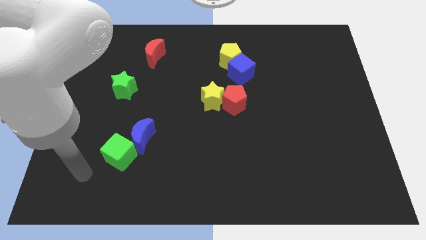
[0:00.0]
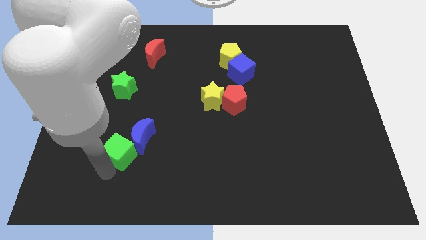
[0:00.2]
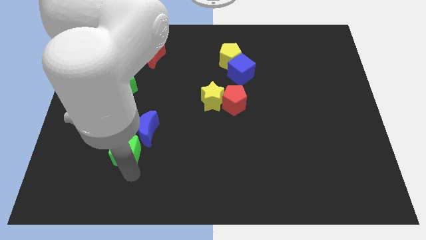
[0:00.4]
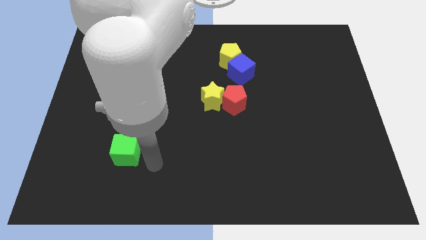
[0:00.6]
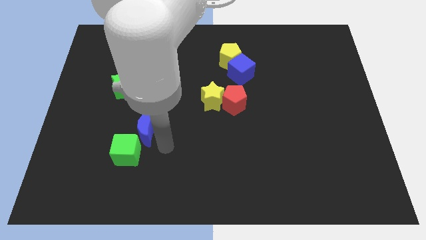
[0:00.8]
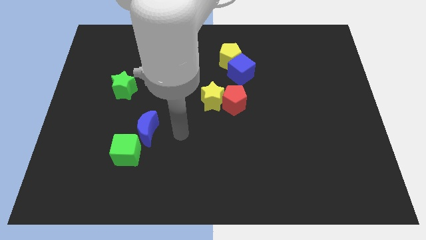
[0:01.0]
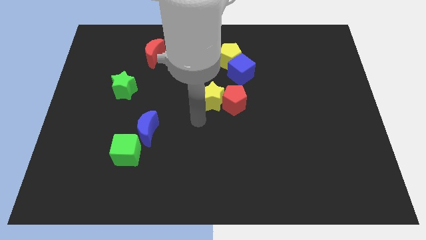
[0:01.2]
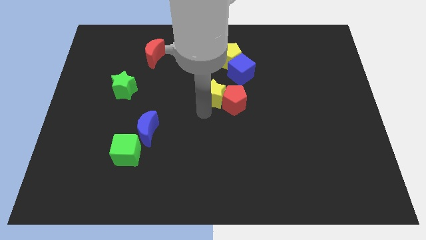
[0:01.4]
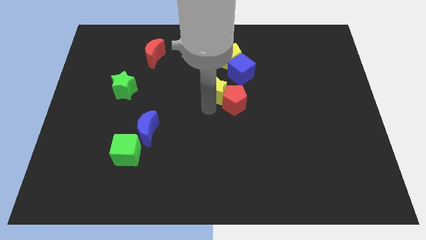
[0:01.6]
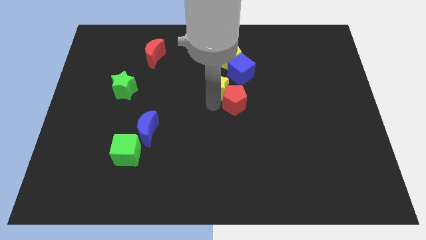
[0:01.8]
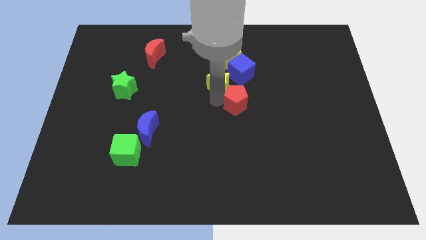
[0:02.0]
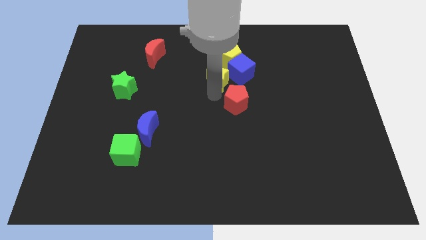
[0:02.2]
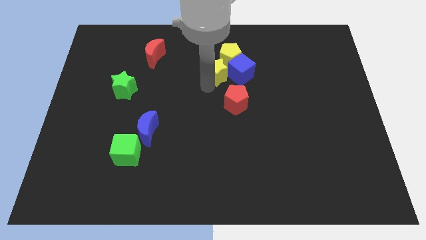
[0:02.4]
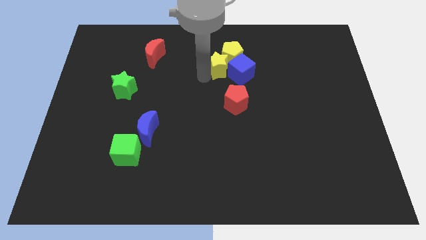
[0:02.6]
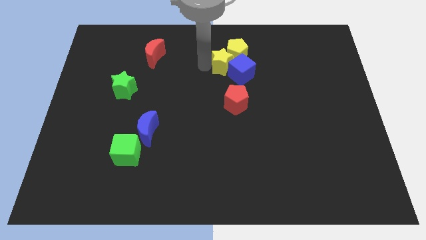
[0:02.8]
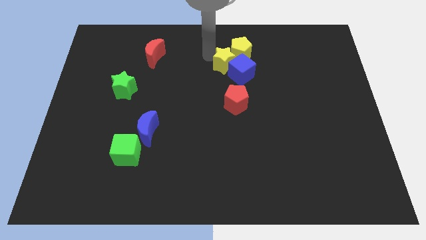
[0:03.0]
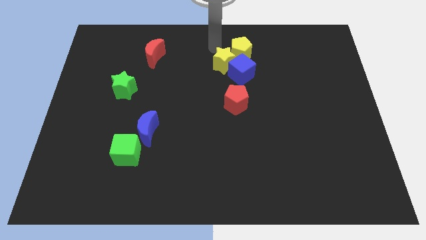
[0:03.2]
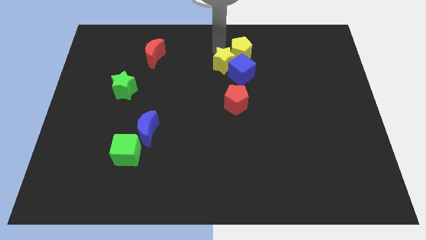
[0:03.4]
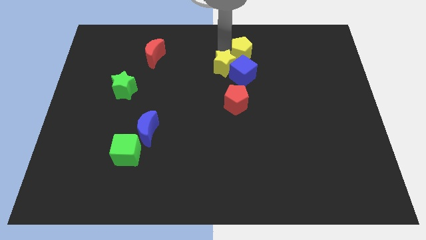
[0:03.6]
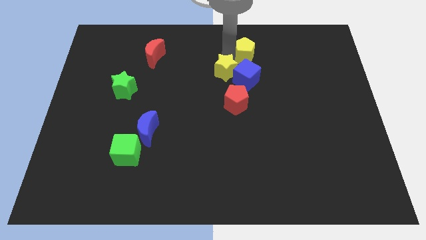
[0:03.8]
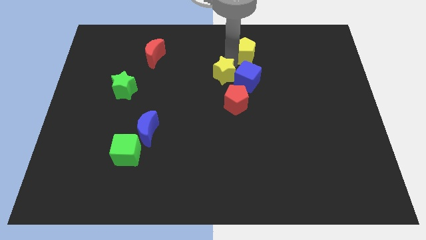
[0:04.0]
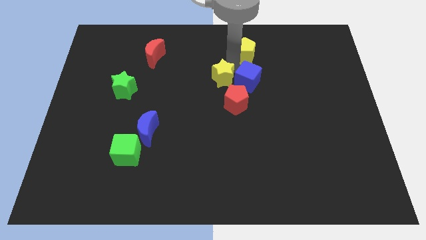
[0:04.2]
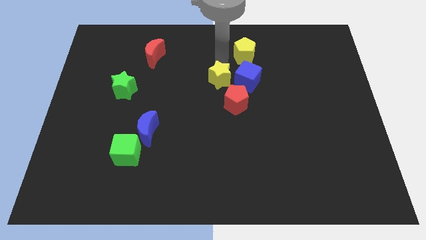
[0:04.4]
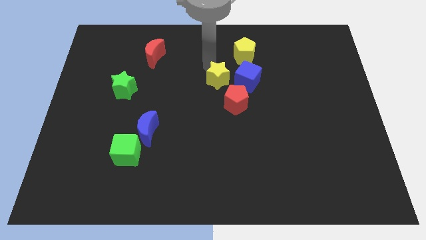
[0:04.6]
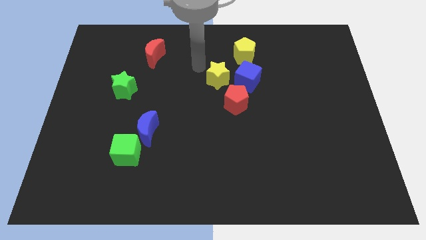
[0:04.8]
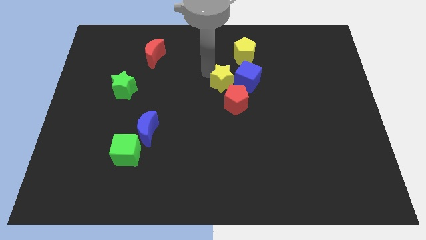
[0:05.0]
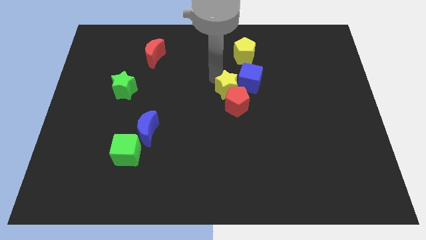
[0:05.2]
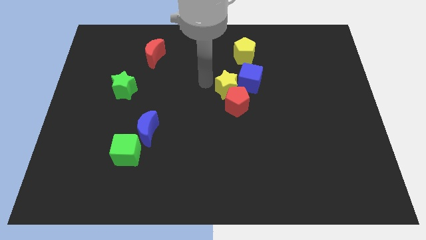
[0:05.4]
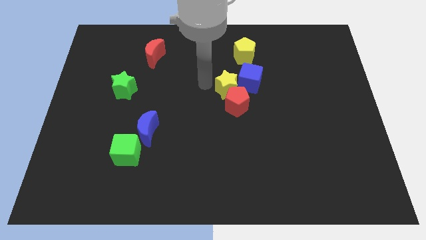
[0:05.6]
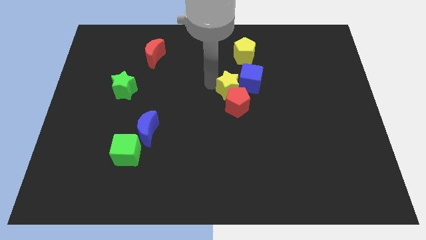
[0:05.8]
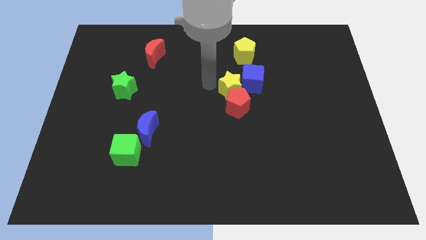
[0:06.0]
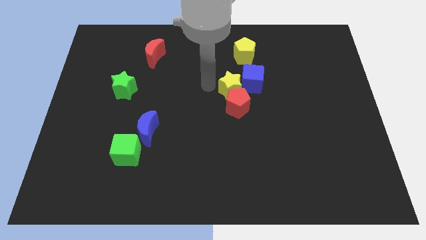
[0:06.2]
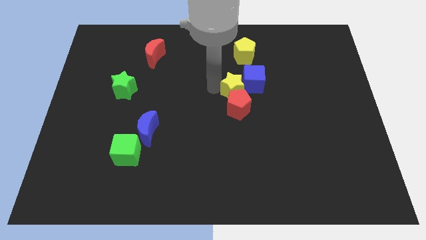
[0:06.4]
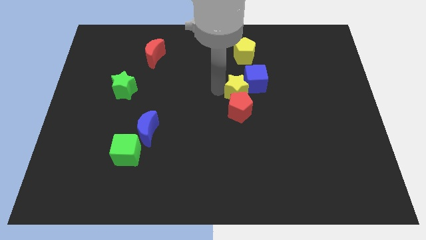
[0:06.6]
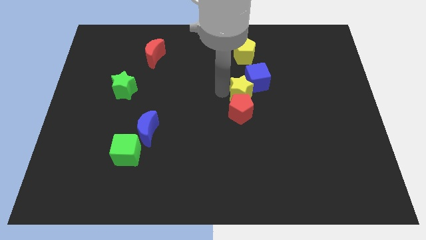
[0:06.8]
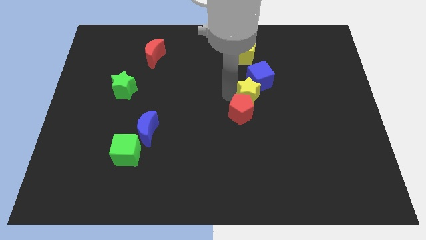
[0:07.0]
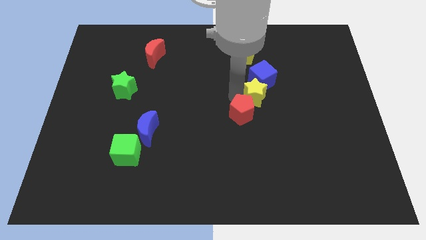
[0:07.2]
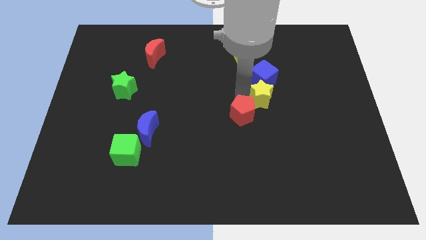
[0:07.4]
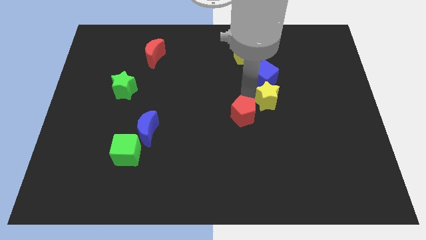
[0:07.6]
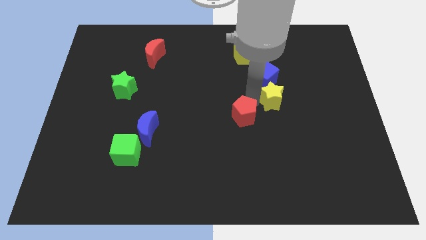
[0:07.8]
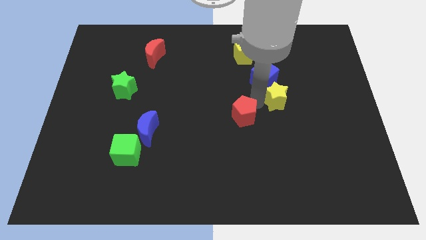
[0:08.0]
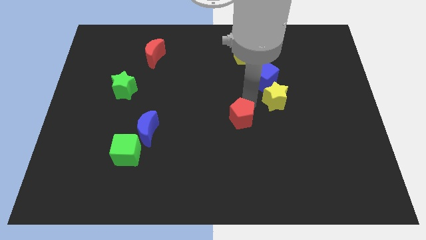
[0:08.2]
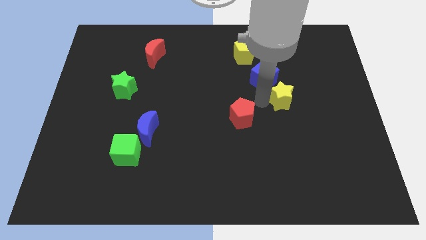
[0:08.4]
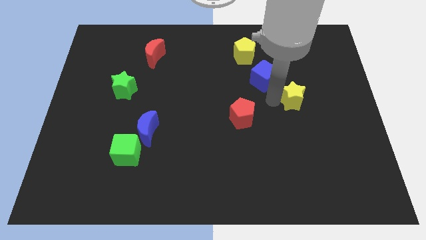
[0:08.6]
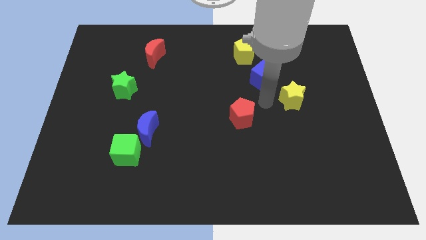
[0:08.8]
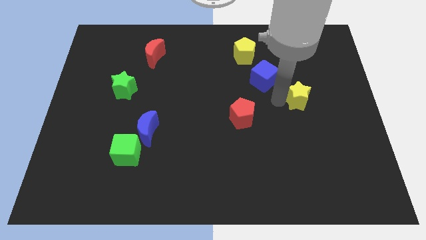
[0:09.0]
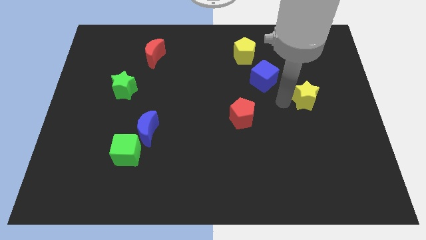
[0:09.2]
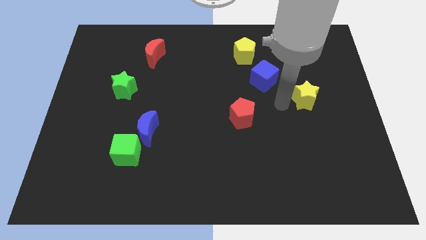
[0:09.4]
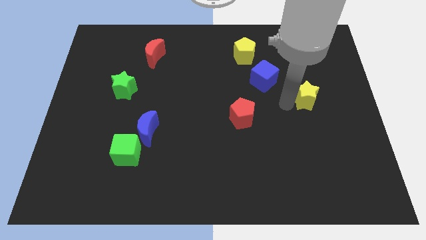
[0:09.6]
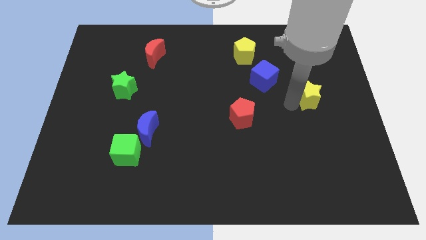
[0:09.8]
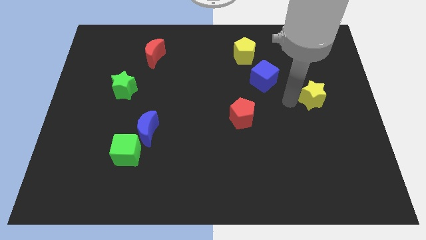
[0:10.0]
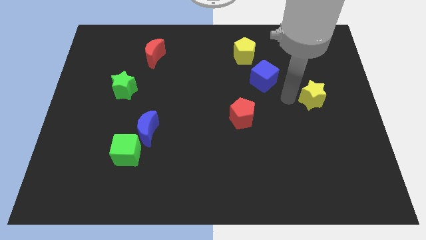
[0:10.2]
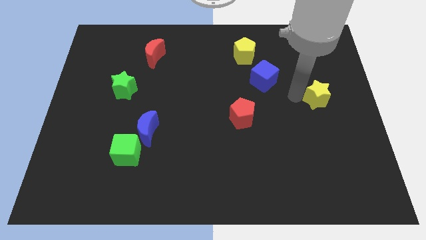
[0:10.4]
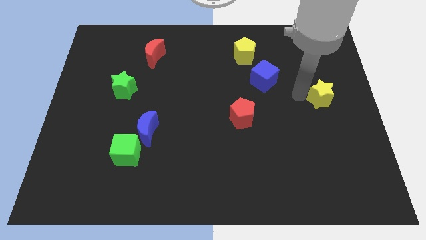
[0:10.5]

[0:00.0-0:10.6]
move the yellow star to the center right

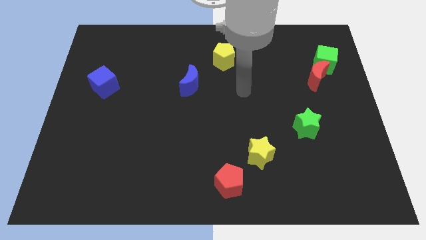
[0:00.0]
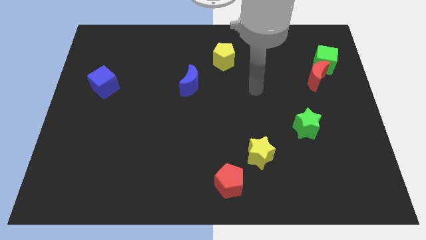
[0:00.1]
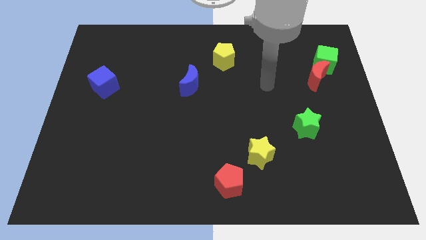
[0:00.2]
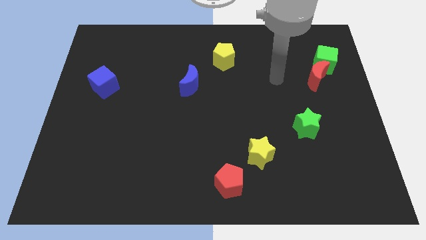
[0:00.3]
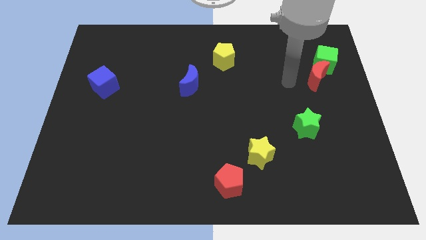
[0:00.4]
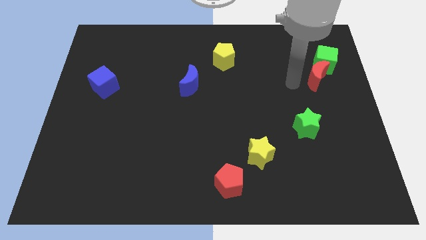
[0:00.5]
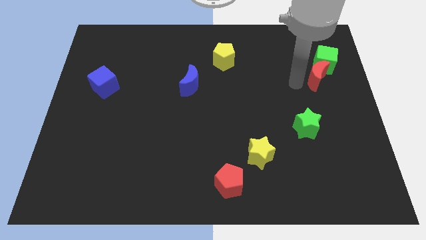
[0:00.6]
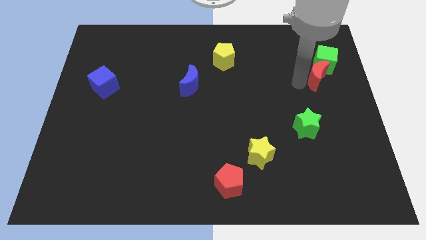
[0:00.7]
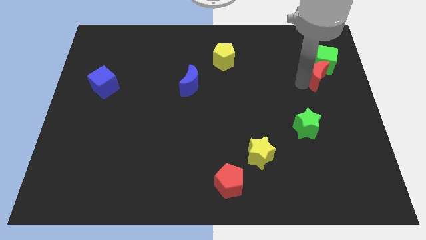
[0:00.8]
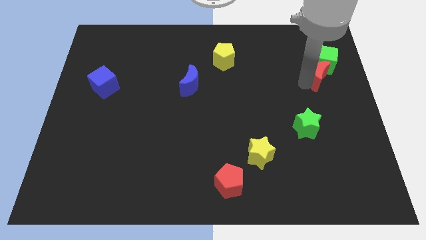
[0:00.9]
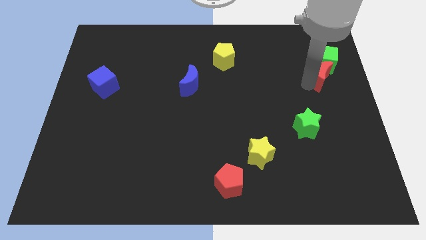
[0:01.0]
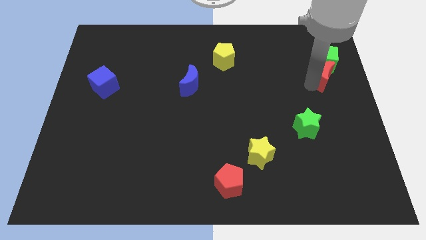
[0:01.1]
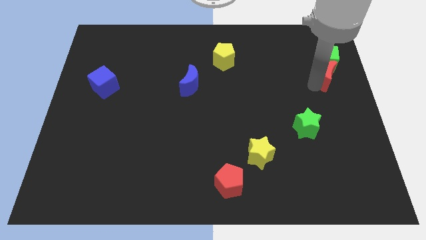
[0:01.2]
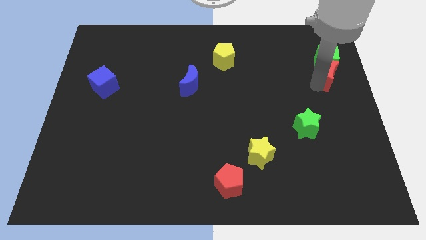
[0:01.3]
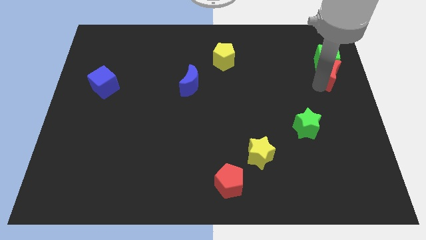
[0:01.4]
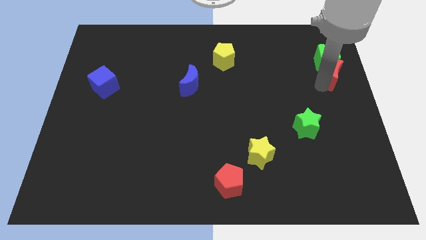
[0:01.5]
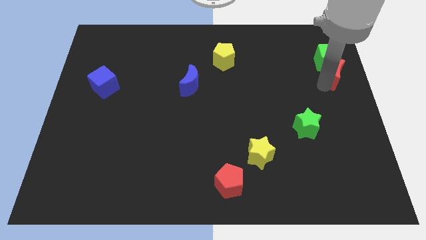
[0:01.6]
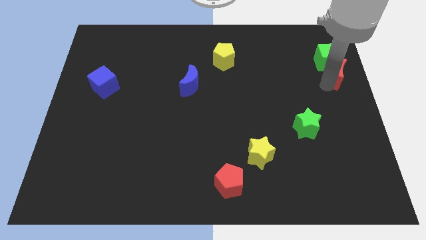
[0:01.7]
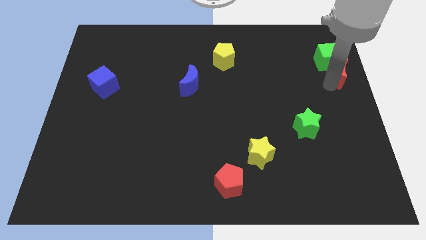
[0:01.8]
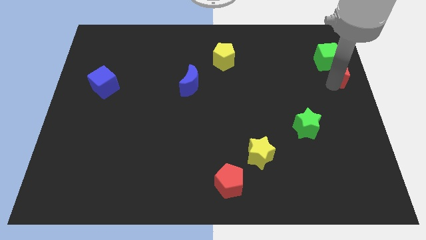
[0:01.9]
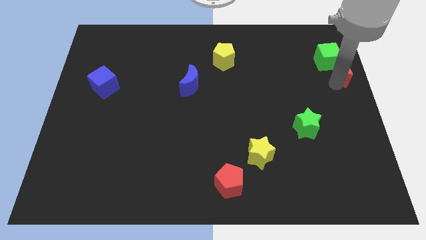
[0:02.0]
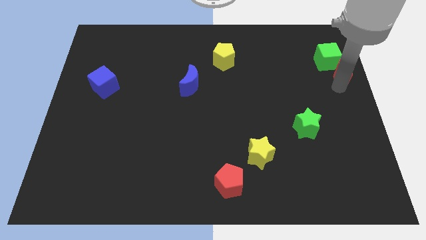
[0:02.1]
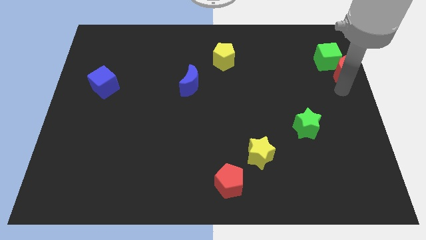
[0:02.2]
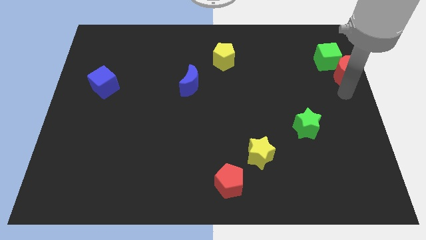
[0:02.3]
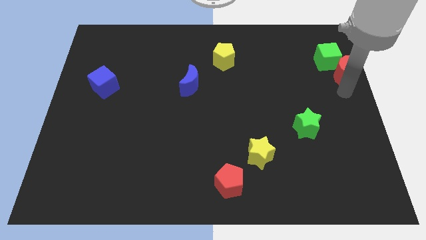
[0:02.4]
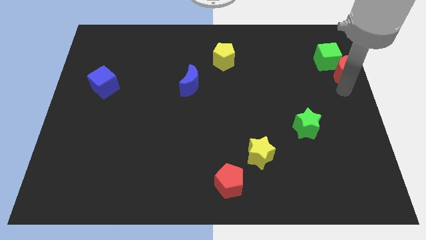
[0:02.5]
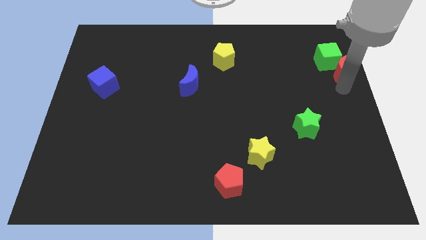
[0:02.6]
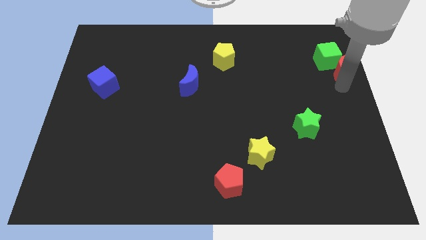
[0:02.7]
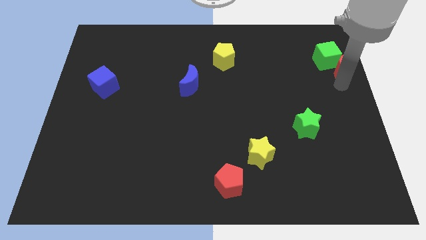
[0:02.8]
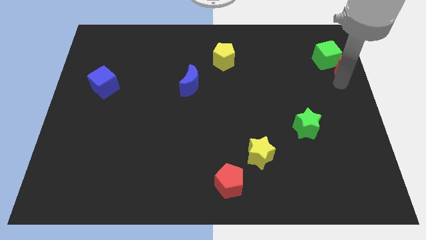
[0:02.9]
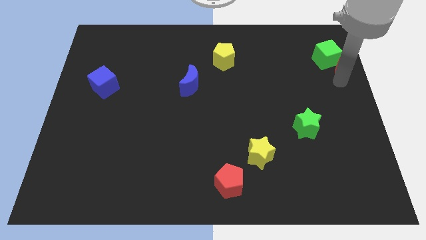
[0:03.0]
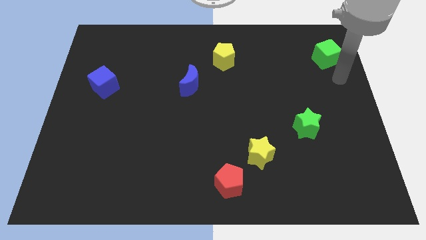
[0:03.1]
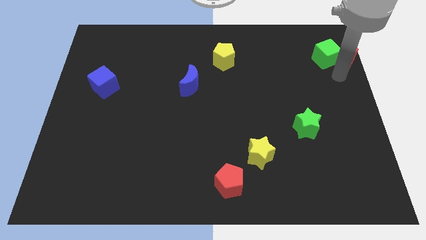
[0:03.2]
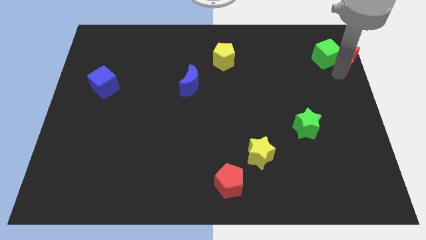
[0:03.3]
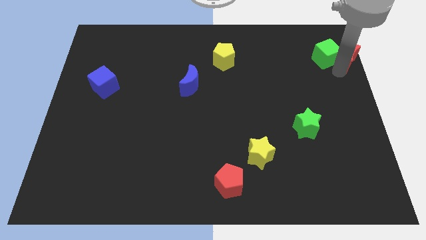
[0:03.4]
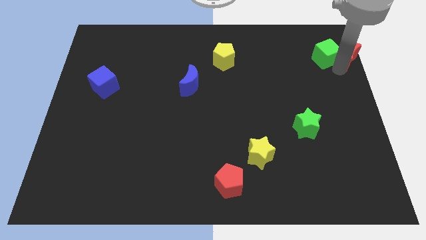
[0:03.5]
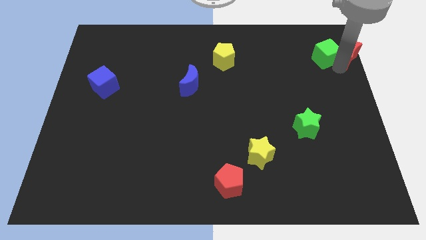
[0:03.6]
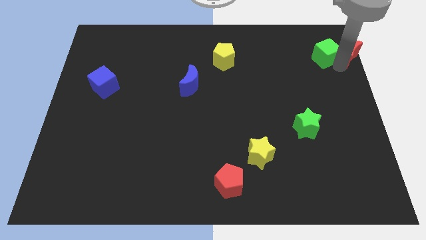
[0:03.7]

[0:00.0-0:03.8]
move the red moon to the top right of the board
